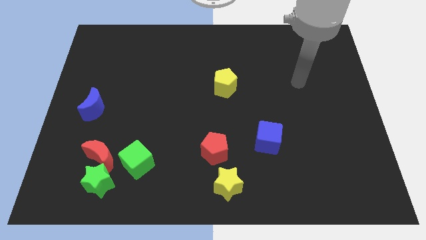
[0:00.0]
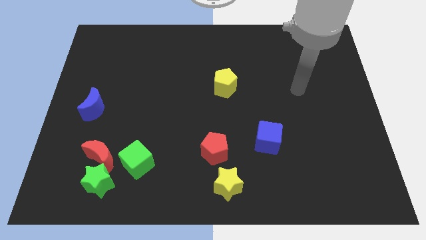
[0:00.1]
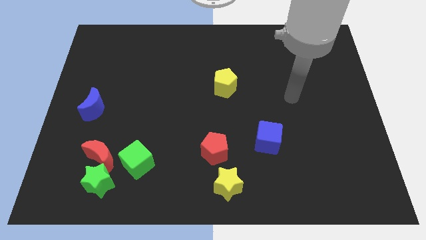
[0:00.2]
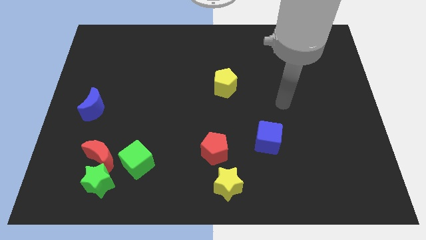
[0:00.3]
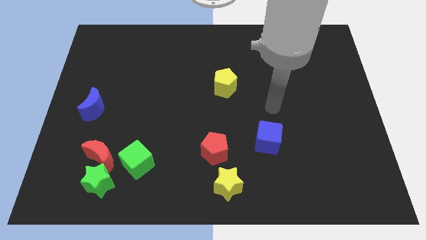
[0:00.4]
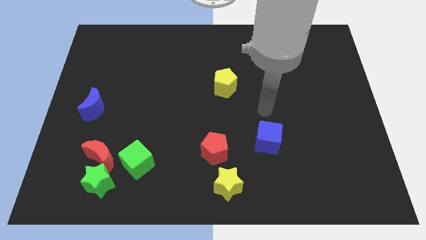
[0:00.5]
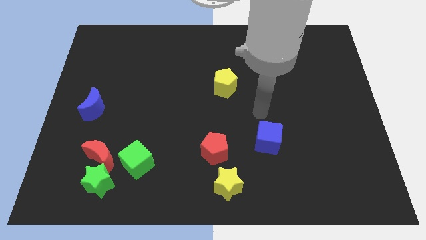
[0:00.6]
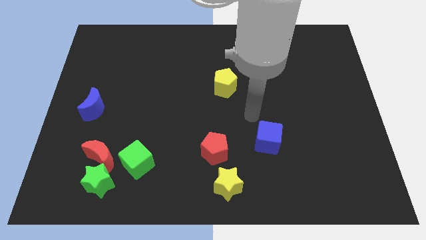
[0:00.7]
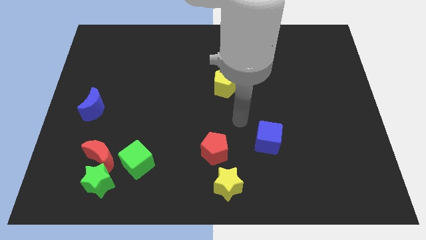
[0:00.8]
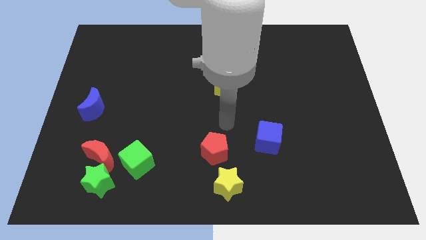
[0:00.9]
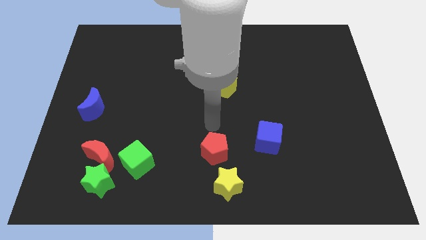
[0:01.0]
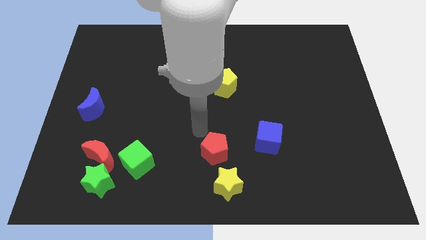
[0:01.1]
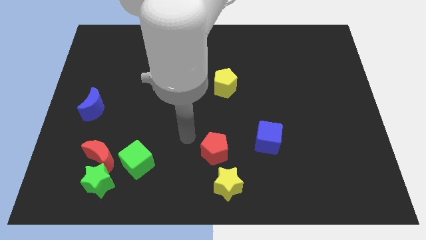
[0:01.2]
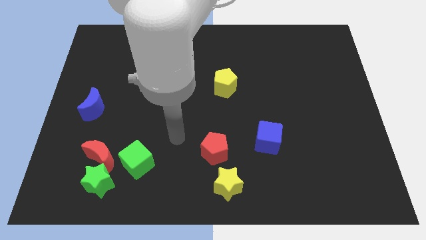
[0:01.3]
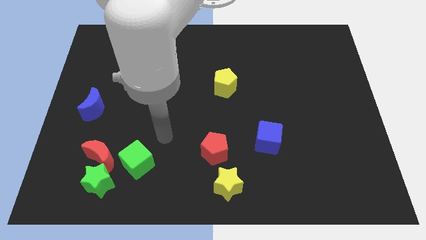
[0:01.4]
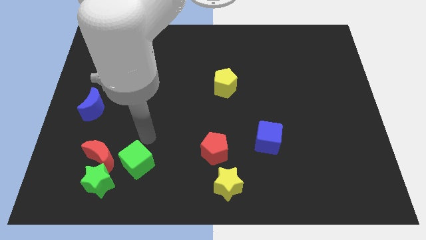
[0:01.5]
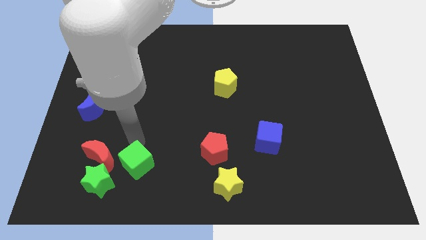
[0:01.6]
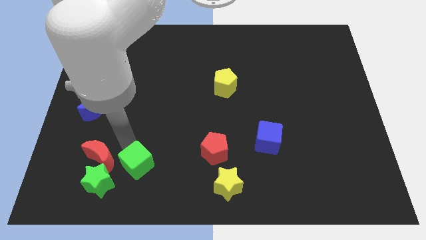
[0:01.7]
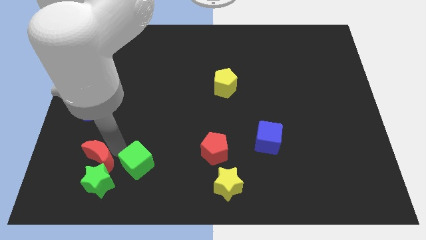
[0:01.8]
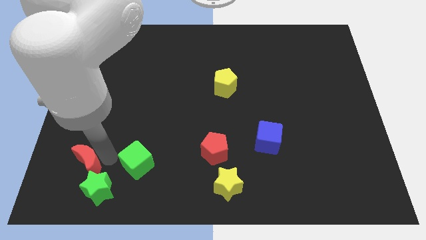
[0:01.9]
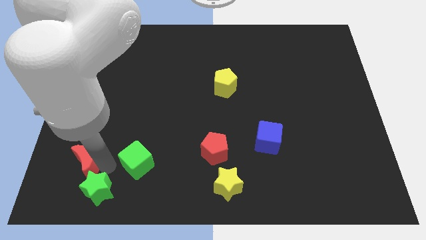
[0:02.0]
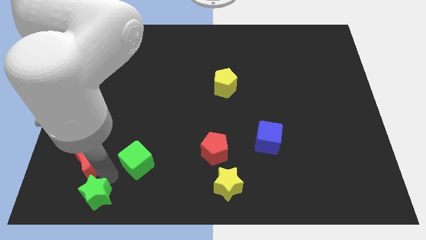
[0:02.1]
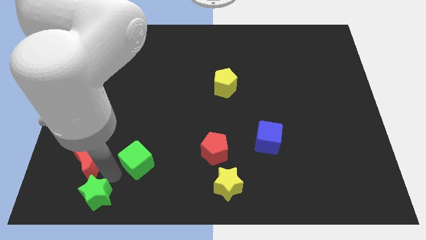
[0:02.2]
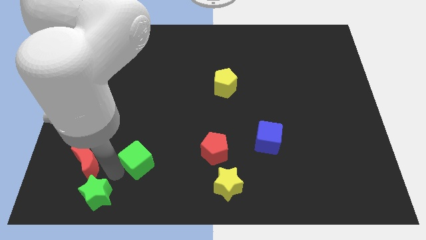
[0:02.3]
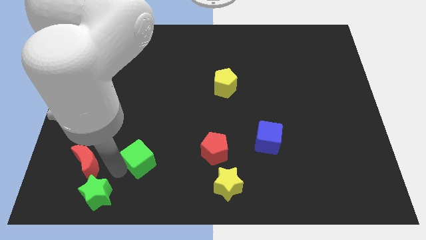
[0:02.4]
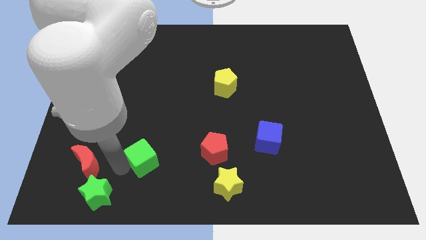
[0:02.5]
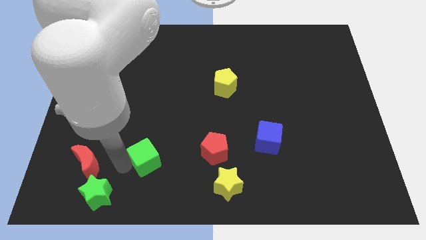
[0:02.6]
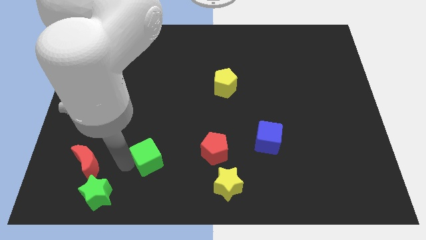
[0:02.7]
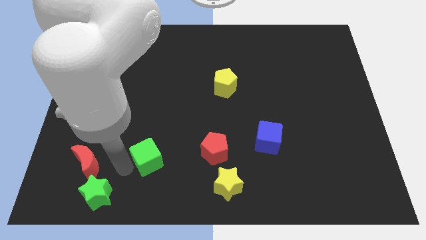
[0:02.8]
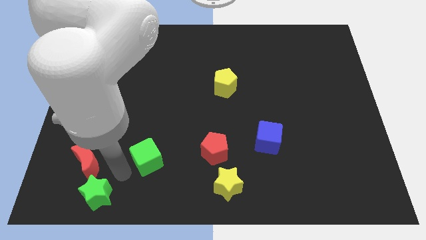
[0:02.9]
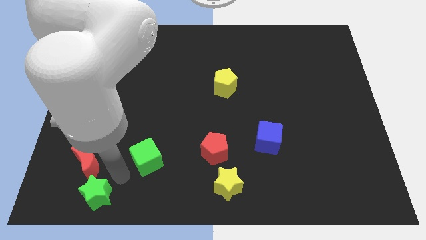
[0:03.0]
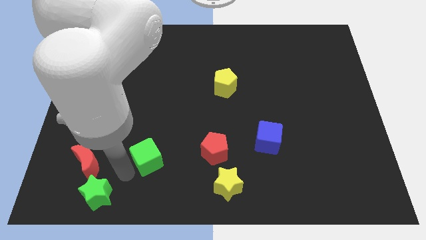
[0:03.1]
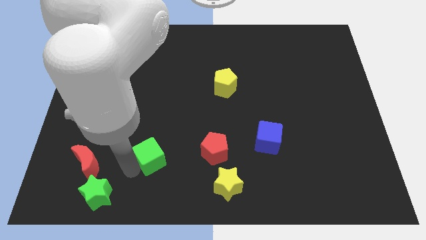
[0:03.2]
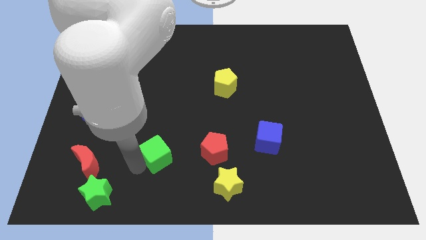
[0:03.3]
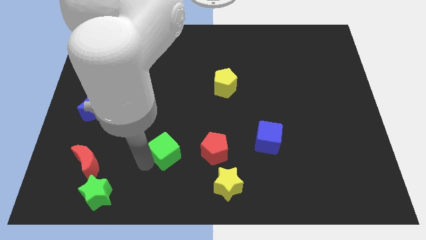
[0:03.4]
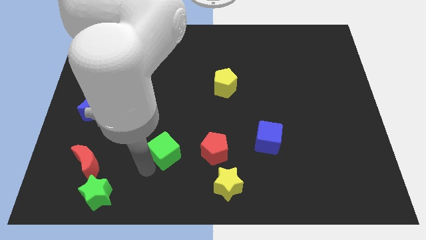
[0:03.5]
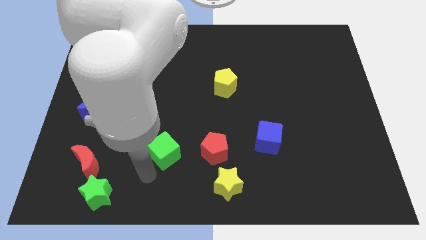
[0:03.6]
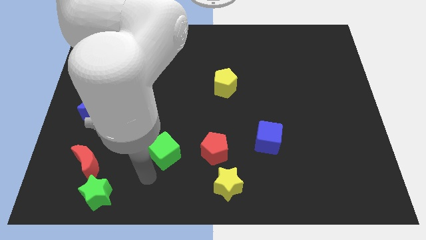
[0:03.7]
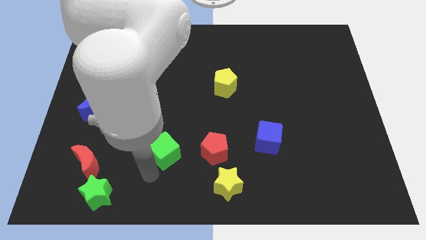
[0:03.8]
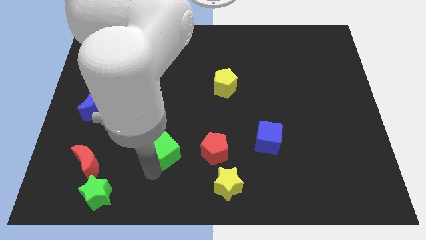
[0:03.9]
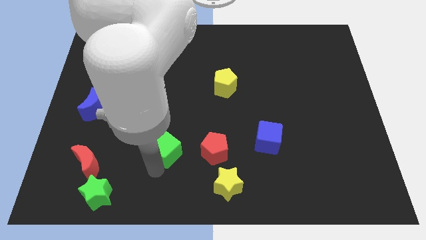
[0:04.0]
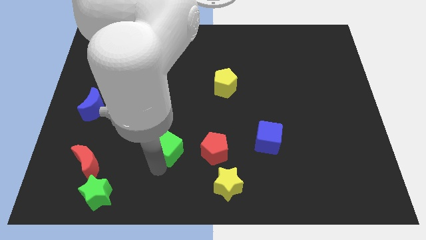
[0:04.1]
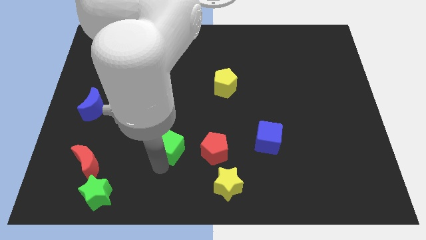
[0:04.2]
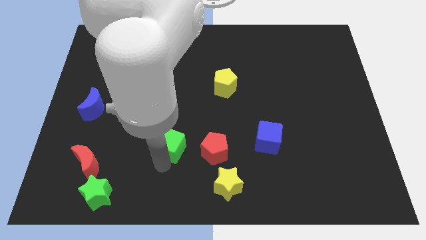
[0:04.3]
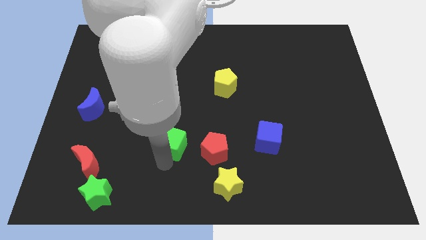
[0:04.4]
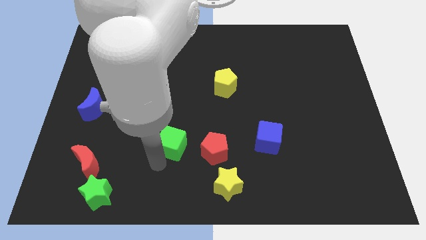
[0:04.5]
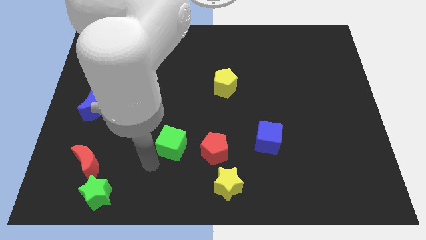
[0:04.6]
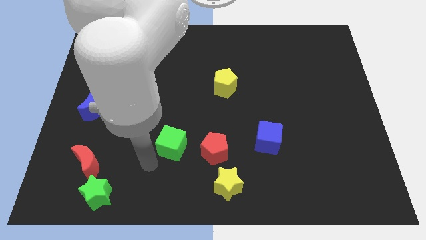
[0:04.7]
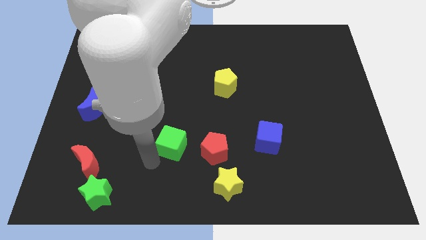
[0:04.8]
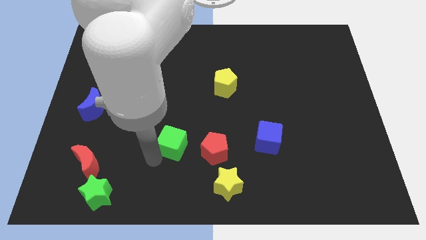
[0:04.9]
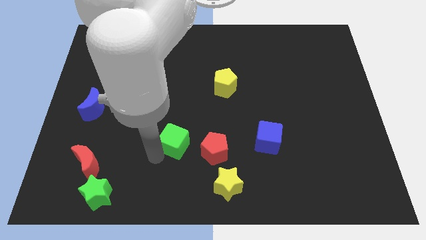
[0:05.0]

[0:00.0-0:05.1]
slide the green cube to the top left side of the red pentagon

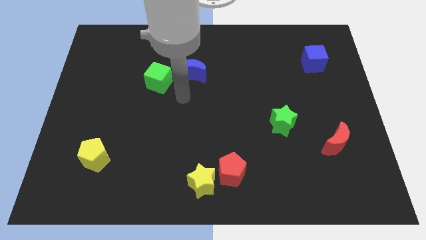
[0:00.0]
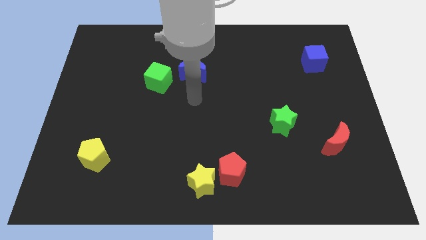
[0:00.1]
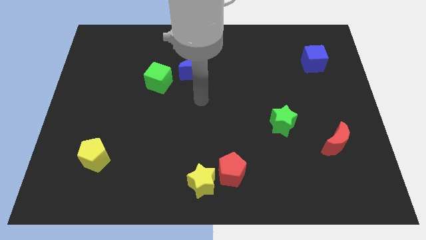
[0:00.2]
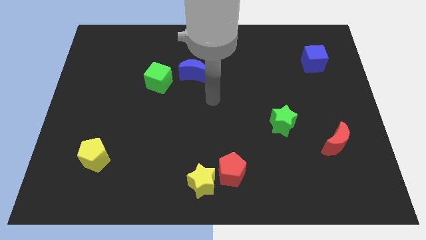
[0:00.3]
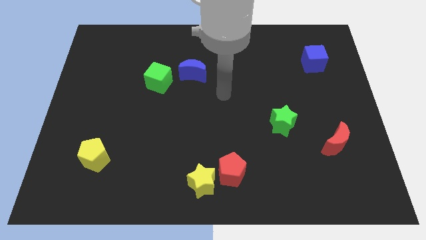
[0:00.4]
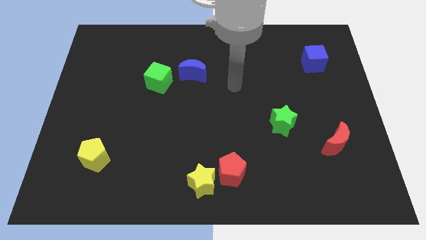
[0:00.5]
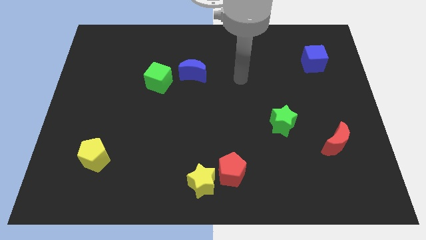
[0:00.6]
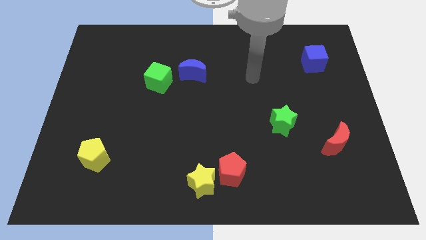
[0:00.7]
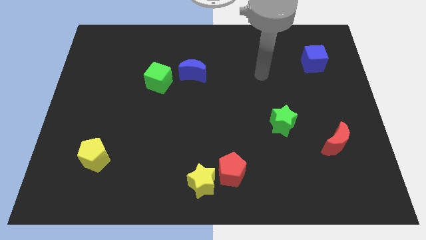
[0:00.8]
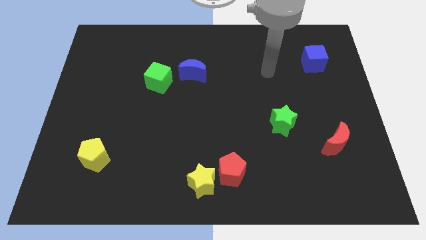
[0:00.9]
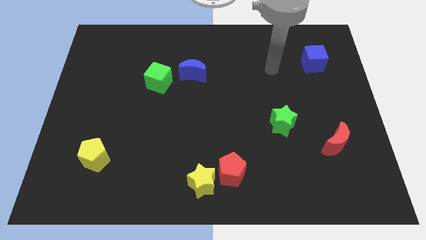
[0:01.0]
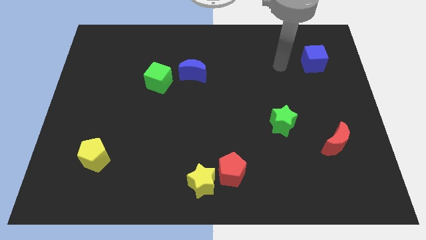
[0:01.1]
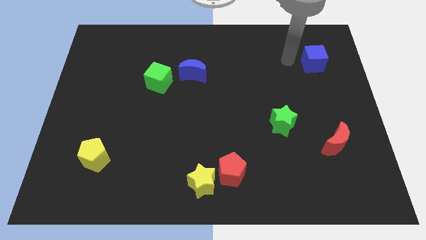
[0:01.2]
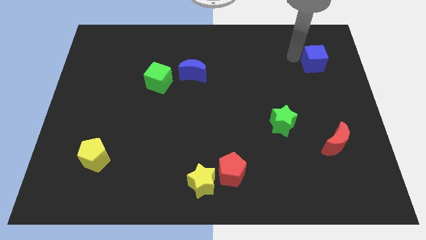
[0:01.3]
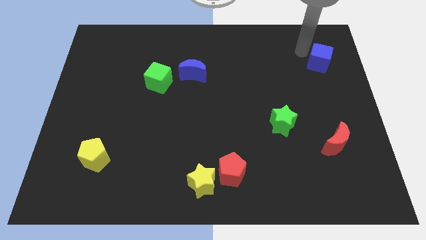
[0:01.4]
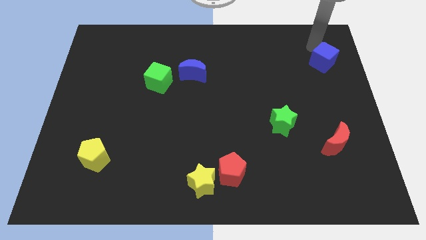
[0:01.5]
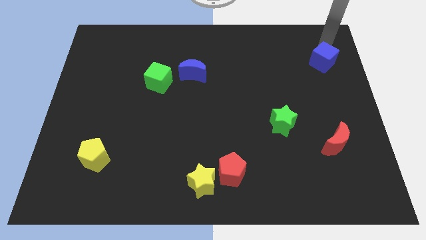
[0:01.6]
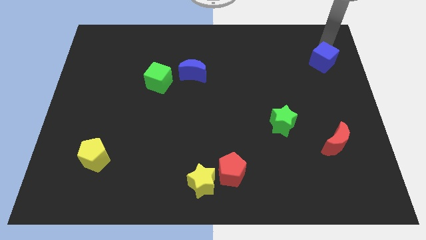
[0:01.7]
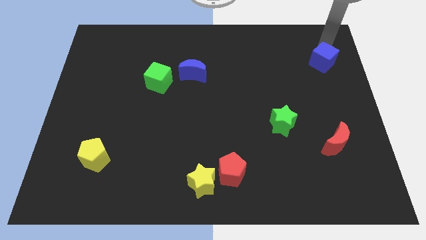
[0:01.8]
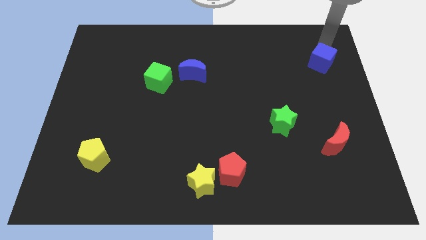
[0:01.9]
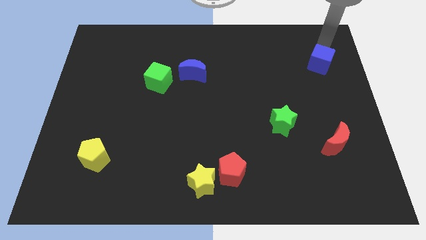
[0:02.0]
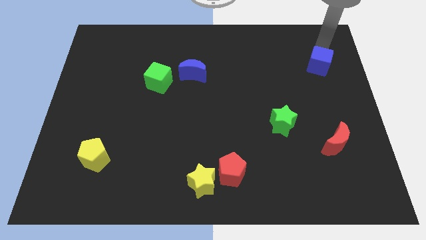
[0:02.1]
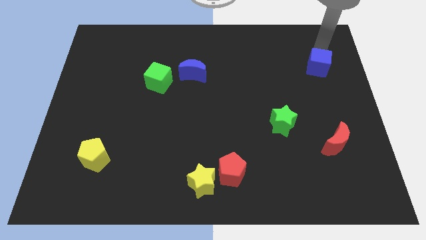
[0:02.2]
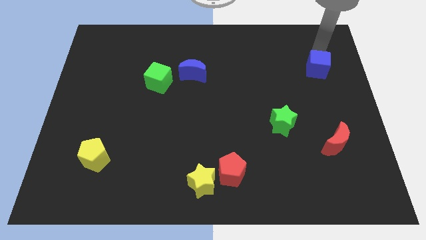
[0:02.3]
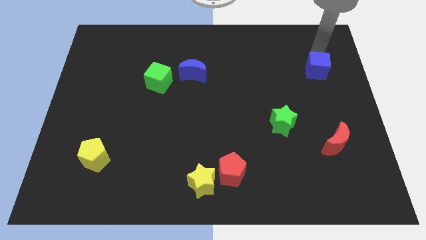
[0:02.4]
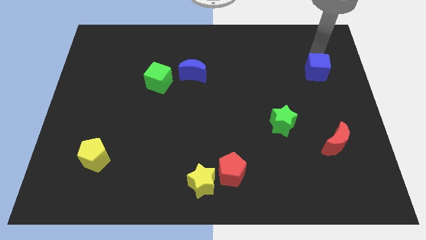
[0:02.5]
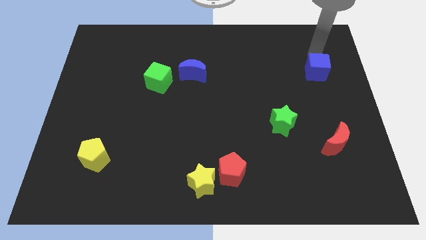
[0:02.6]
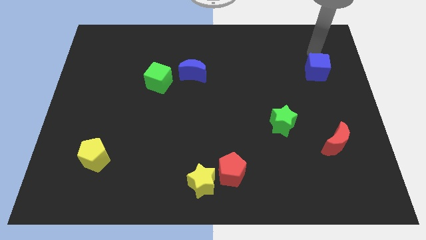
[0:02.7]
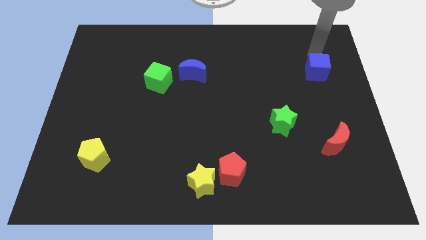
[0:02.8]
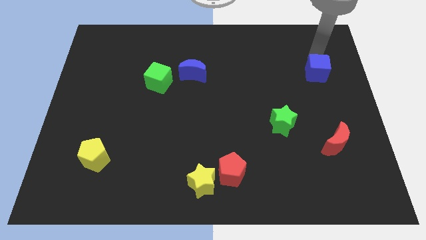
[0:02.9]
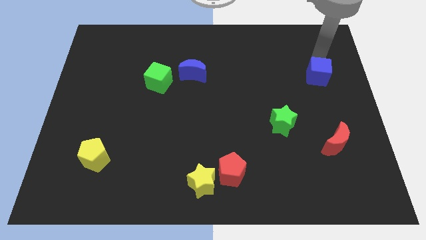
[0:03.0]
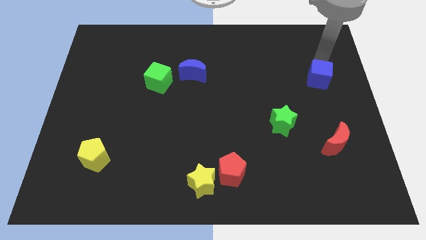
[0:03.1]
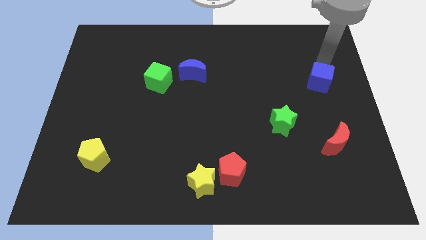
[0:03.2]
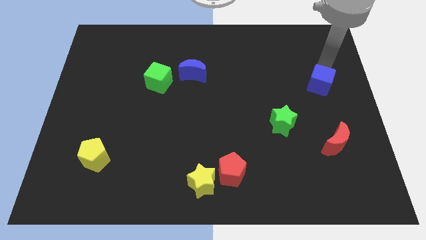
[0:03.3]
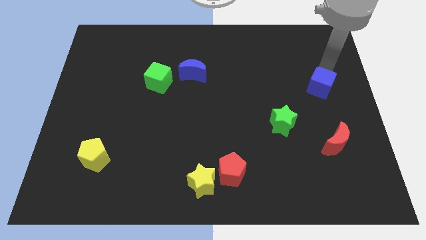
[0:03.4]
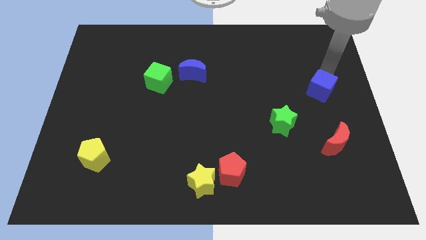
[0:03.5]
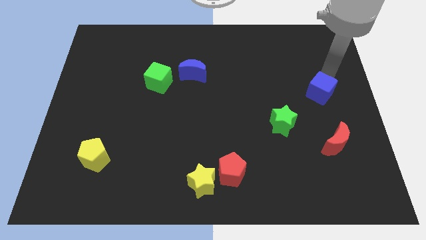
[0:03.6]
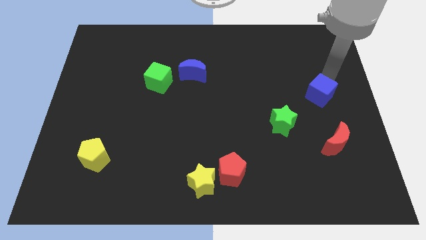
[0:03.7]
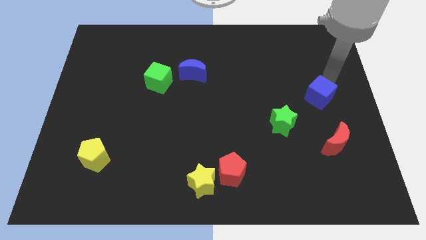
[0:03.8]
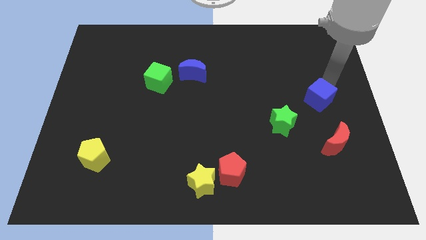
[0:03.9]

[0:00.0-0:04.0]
push the blue cube to the top right side of the green star
